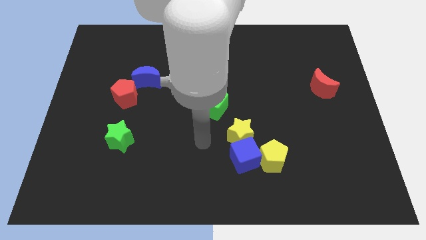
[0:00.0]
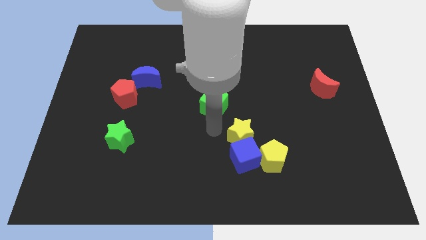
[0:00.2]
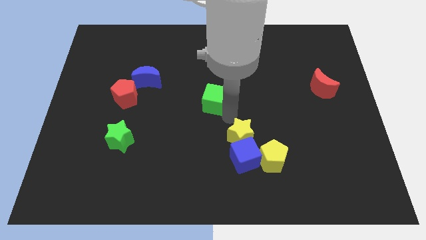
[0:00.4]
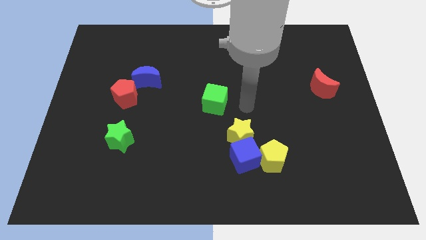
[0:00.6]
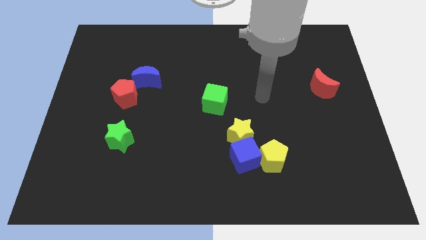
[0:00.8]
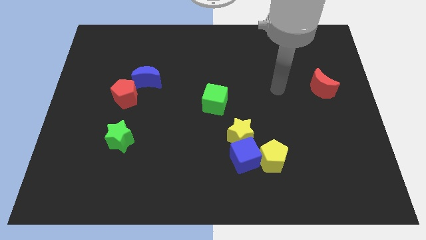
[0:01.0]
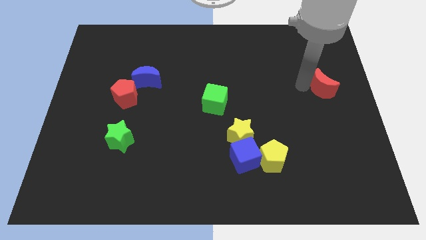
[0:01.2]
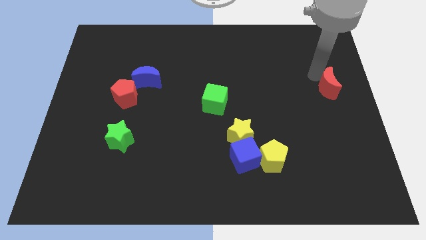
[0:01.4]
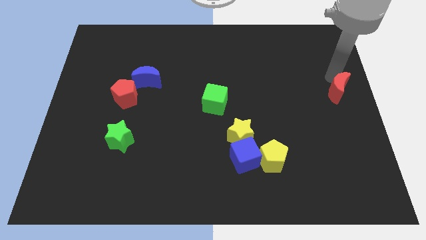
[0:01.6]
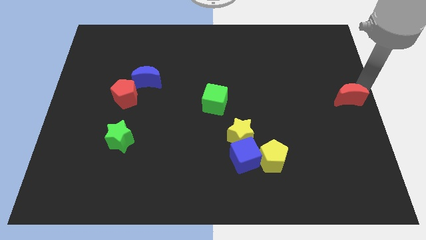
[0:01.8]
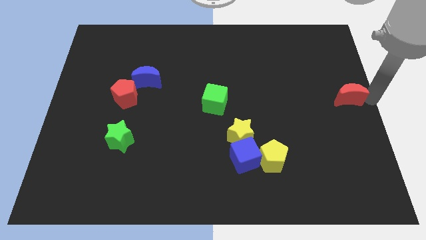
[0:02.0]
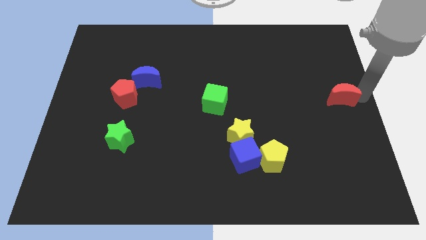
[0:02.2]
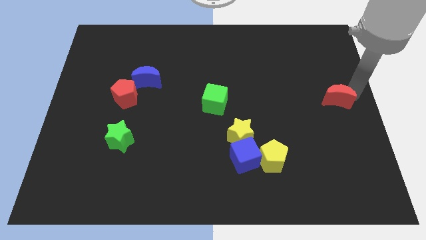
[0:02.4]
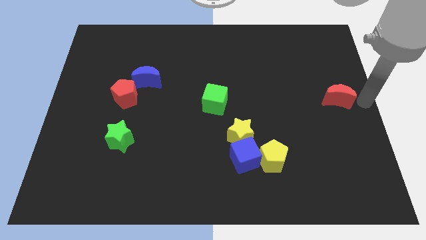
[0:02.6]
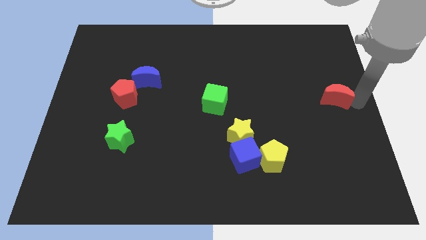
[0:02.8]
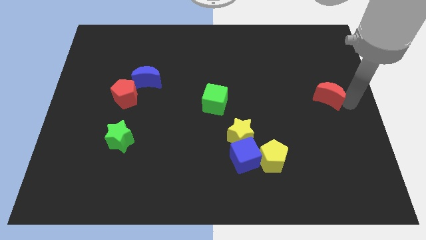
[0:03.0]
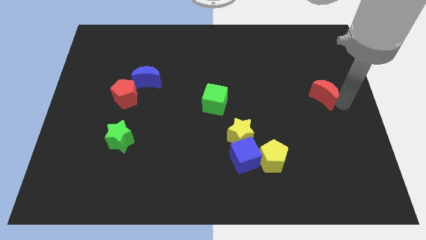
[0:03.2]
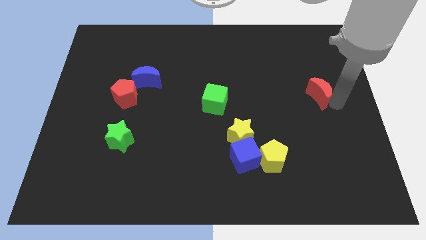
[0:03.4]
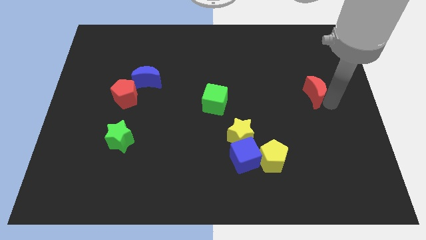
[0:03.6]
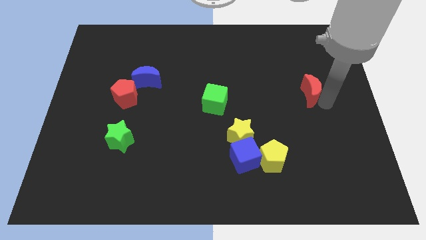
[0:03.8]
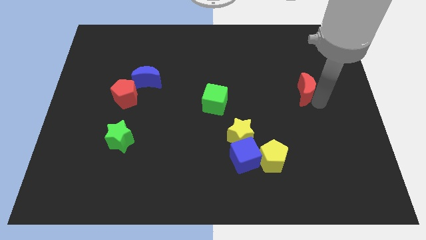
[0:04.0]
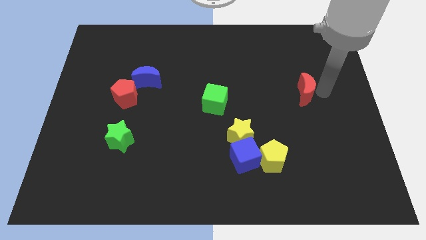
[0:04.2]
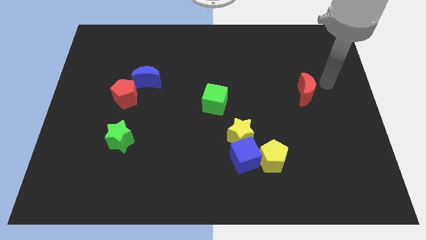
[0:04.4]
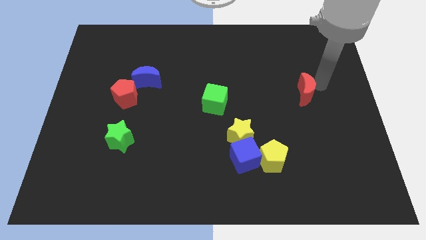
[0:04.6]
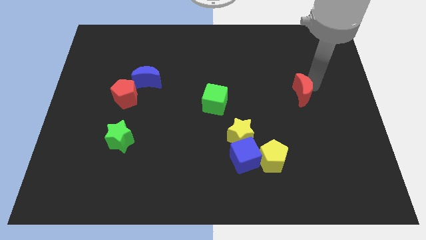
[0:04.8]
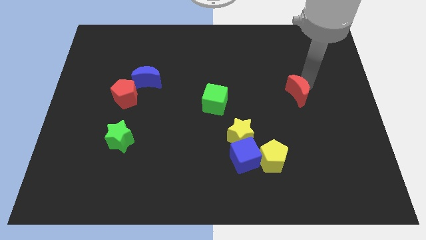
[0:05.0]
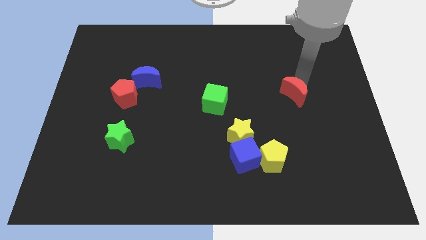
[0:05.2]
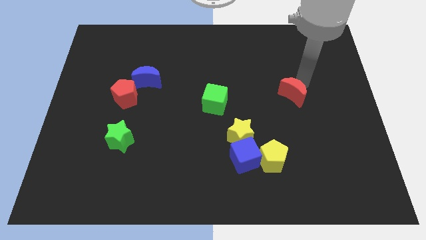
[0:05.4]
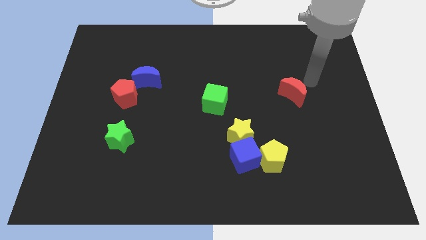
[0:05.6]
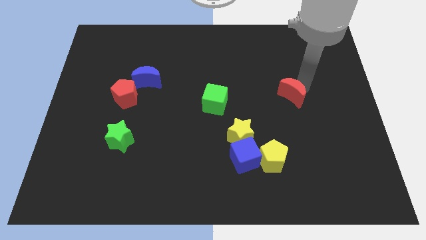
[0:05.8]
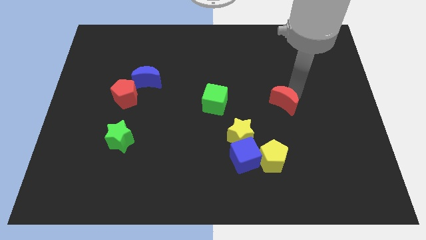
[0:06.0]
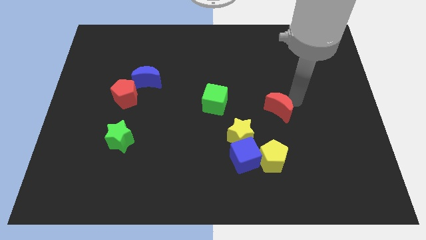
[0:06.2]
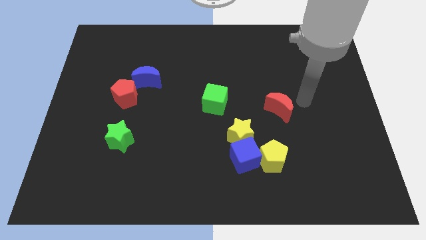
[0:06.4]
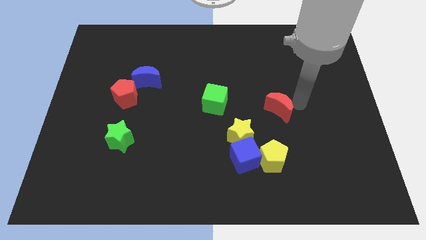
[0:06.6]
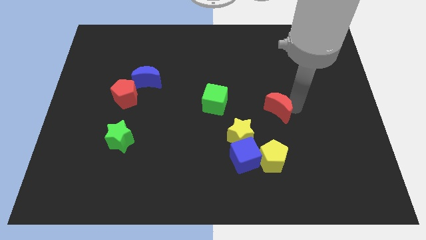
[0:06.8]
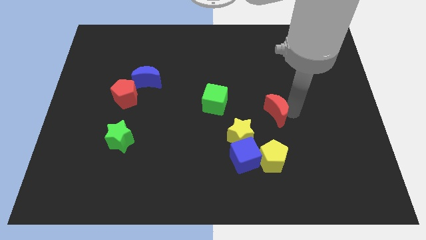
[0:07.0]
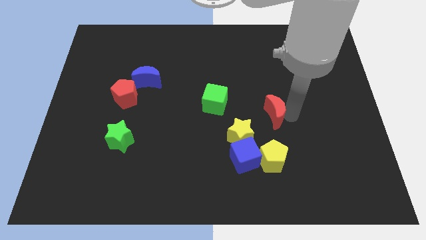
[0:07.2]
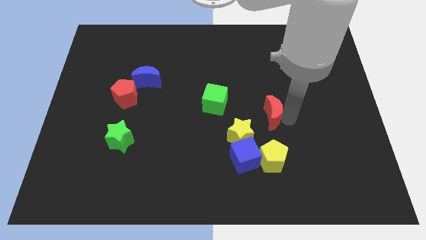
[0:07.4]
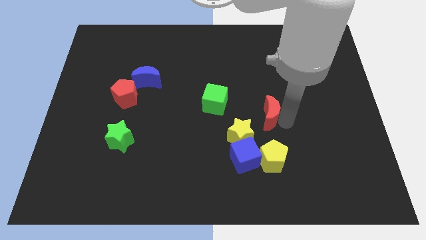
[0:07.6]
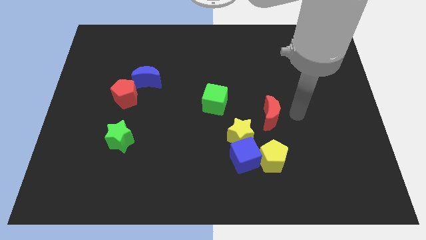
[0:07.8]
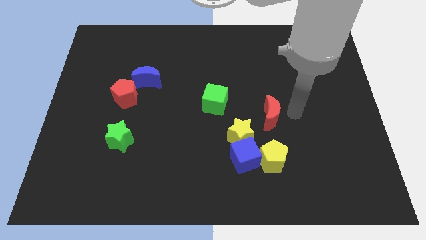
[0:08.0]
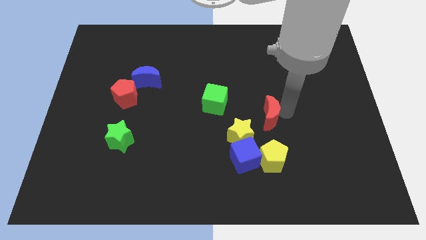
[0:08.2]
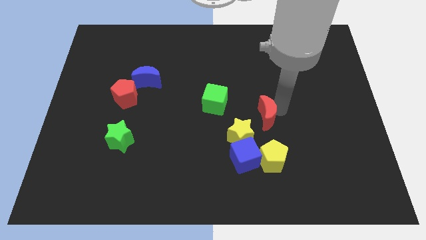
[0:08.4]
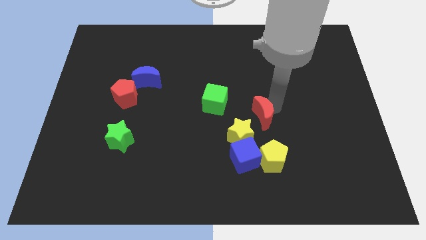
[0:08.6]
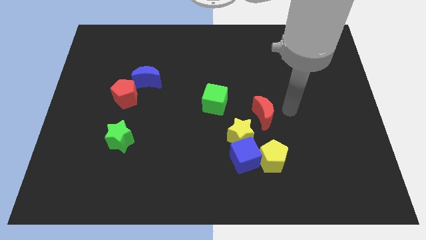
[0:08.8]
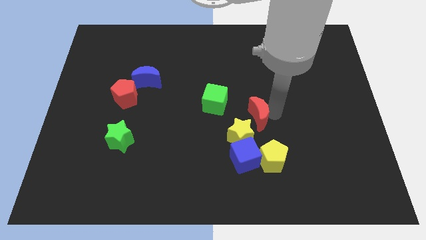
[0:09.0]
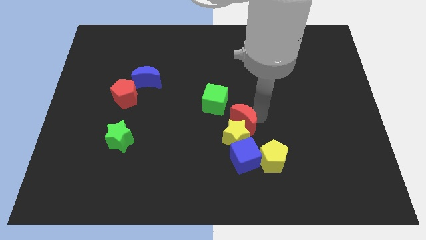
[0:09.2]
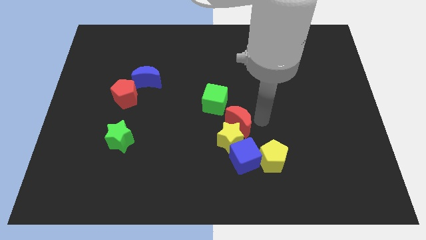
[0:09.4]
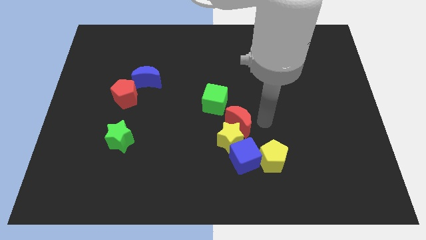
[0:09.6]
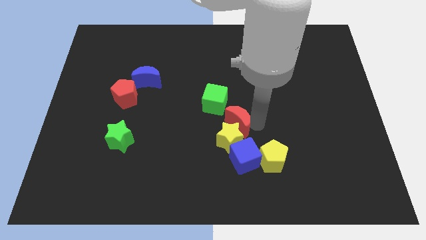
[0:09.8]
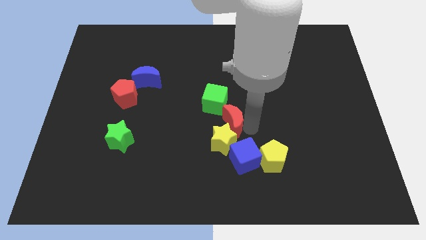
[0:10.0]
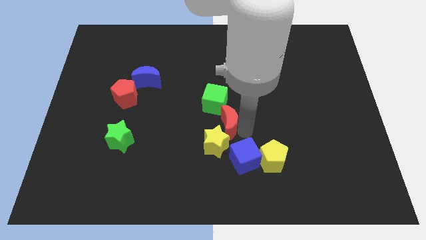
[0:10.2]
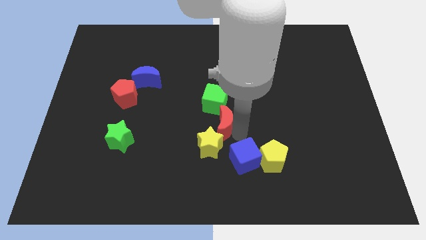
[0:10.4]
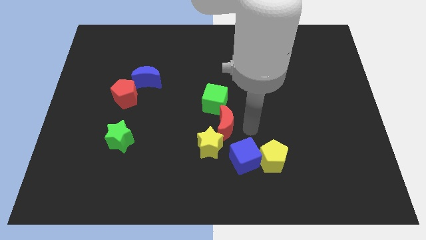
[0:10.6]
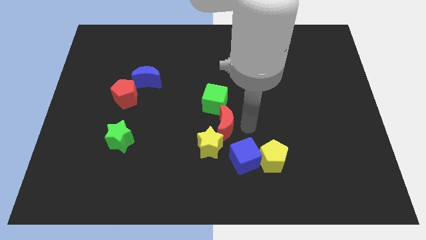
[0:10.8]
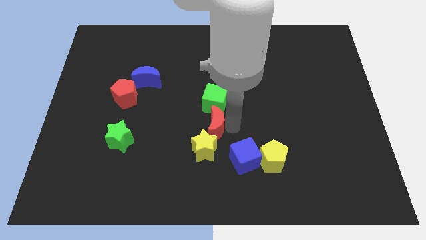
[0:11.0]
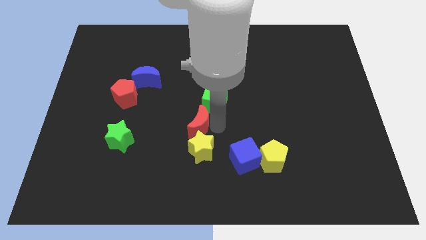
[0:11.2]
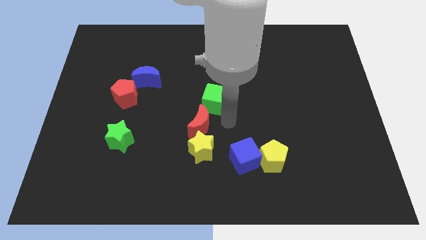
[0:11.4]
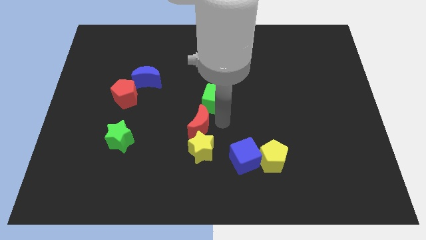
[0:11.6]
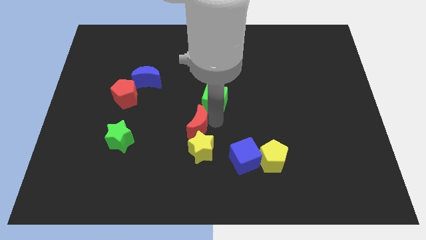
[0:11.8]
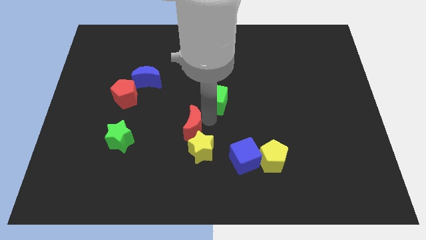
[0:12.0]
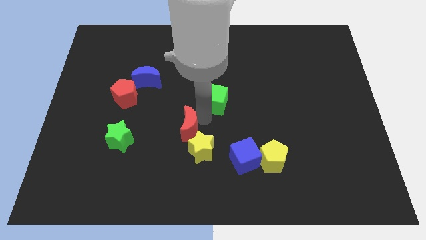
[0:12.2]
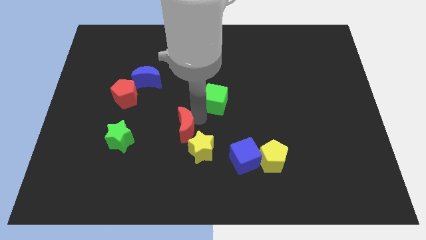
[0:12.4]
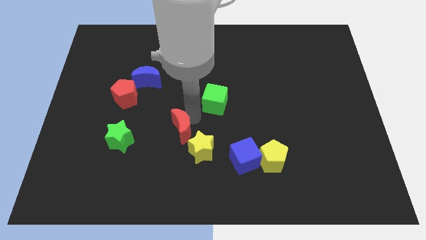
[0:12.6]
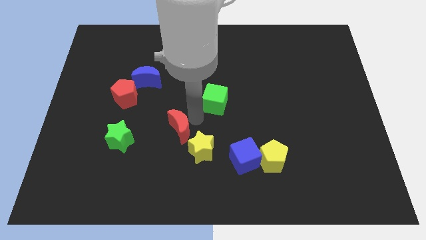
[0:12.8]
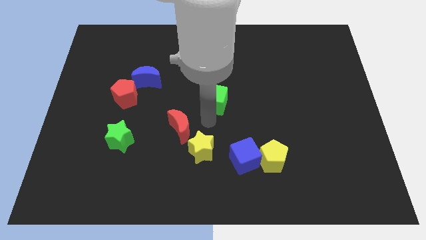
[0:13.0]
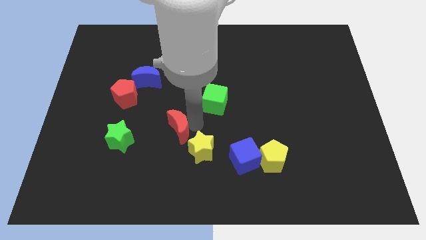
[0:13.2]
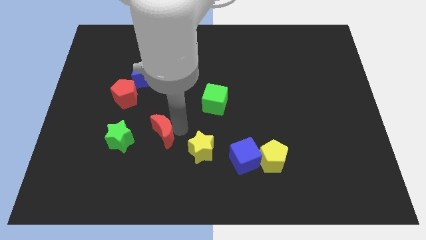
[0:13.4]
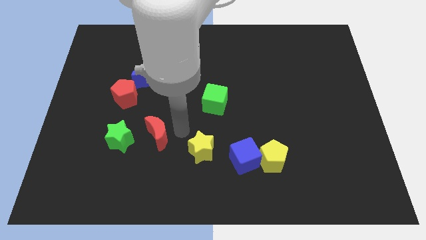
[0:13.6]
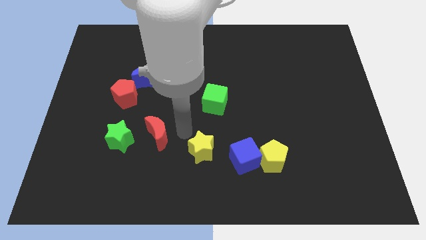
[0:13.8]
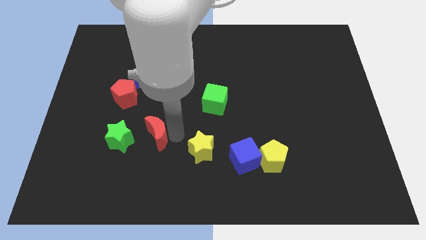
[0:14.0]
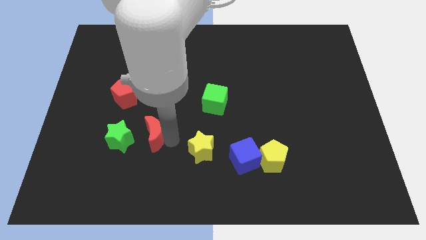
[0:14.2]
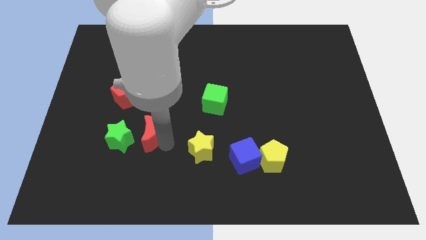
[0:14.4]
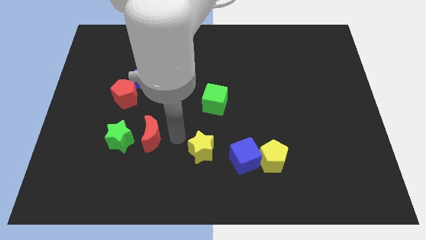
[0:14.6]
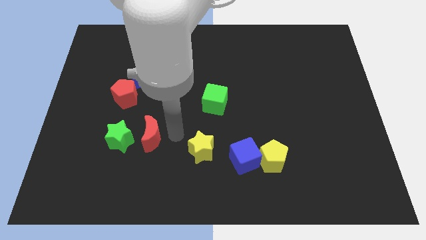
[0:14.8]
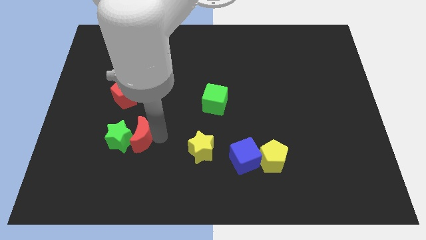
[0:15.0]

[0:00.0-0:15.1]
slide the red moon next to the green star
